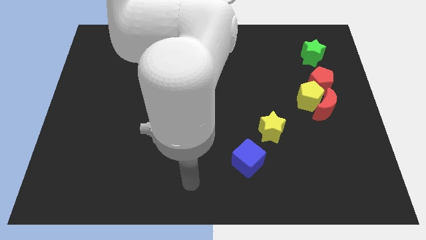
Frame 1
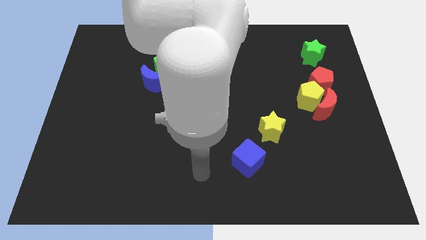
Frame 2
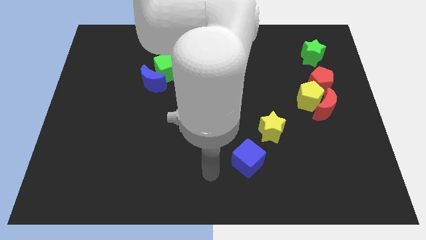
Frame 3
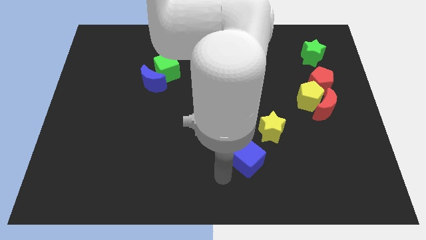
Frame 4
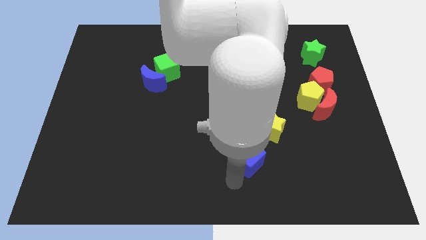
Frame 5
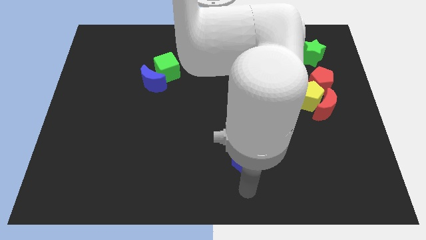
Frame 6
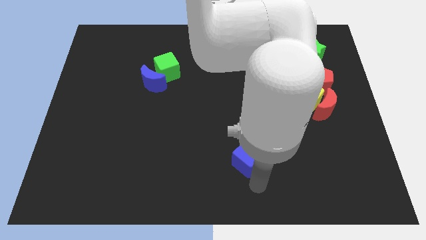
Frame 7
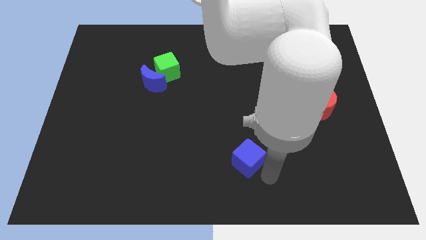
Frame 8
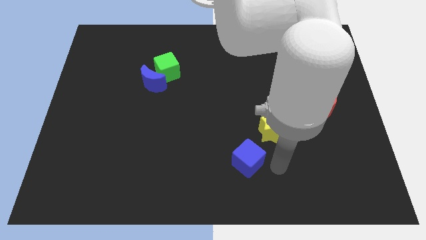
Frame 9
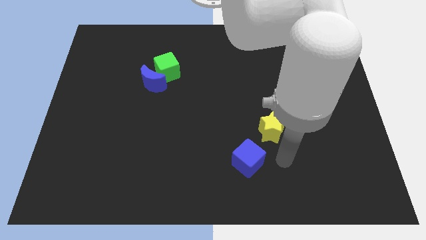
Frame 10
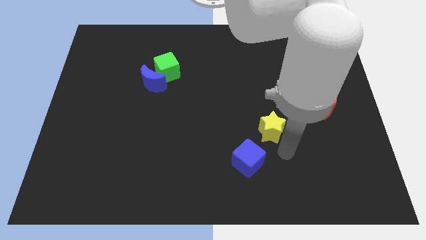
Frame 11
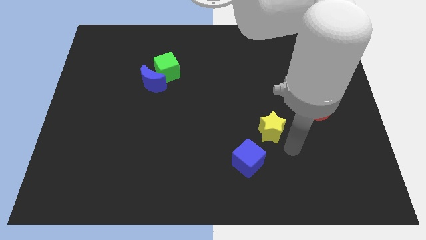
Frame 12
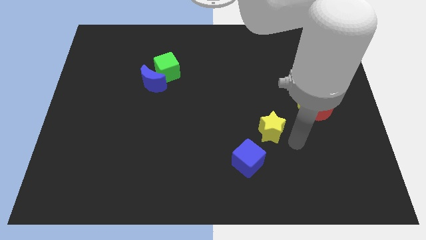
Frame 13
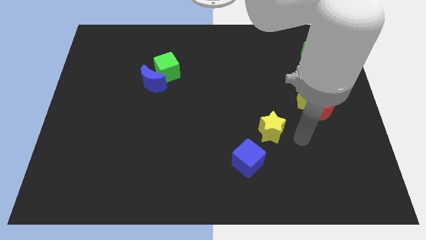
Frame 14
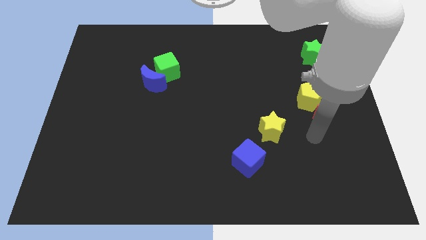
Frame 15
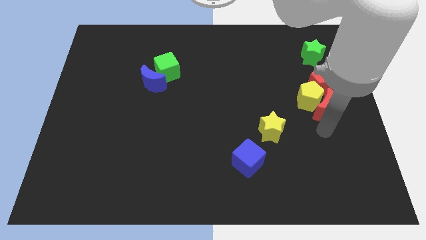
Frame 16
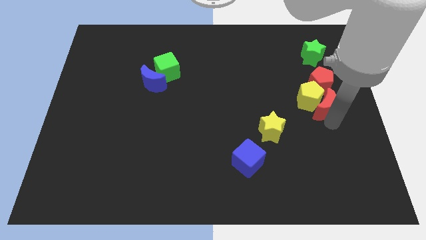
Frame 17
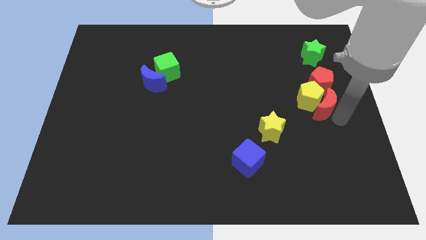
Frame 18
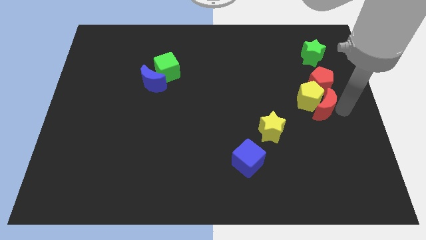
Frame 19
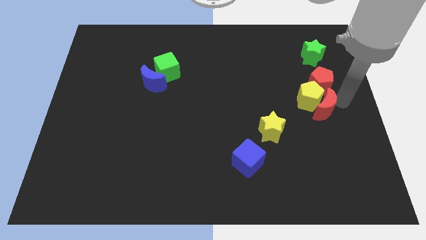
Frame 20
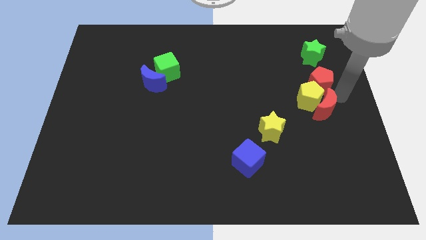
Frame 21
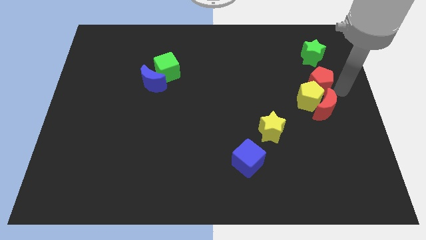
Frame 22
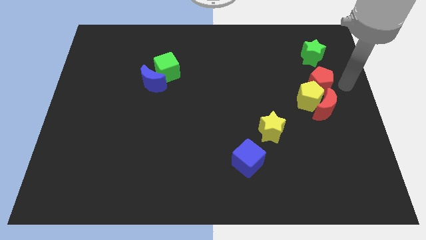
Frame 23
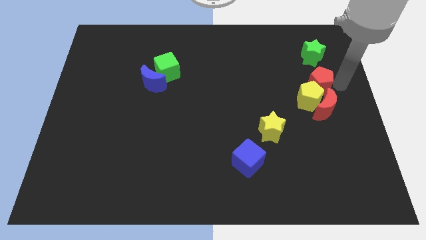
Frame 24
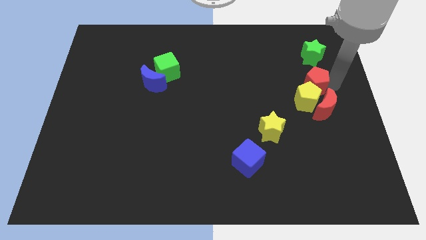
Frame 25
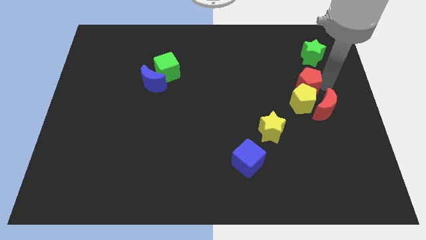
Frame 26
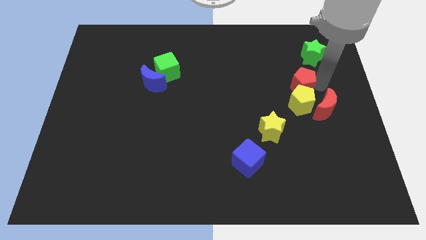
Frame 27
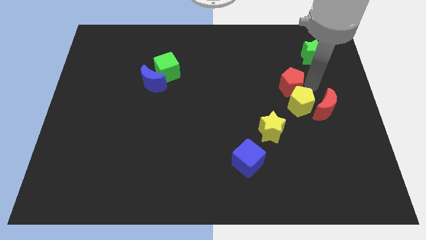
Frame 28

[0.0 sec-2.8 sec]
push the red pentagon slightly left

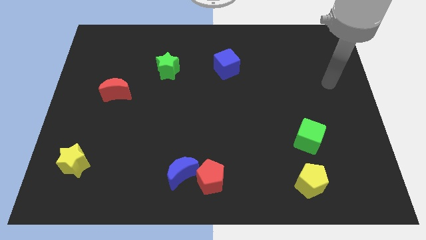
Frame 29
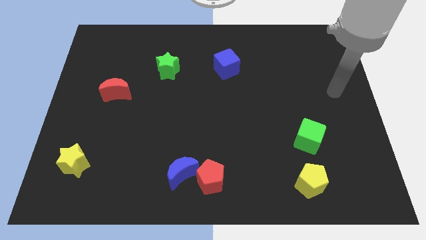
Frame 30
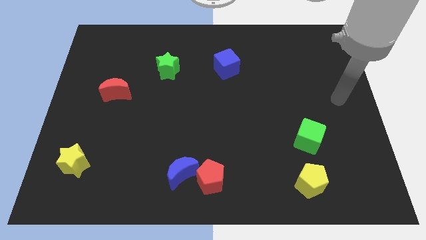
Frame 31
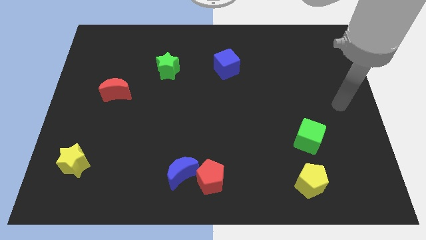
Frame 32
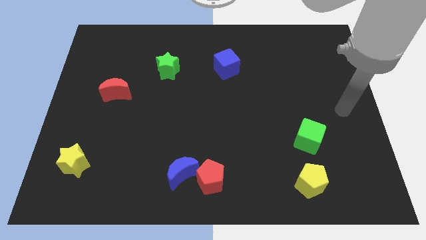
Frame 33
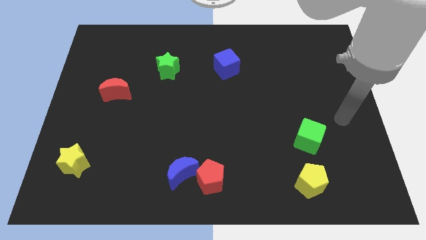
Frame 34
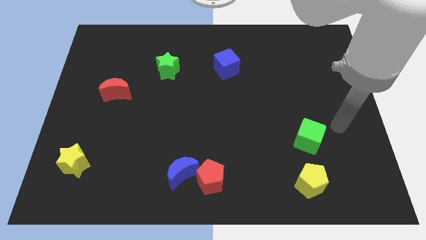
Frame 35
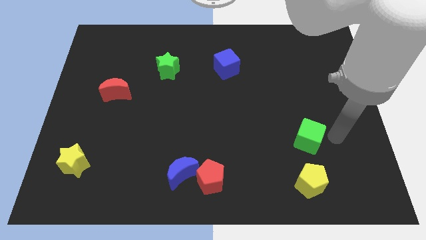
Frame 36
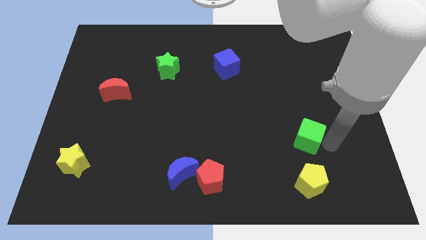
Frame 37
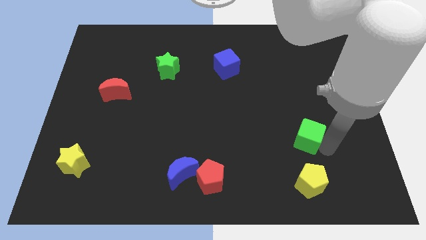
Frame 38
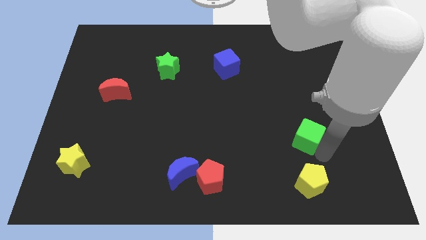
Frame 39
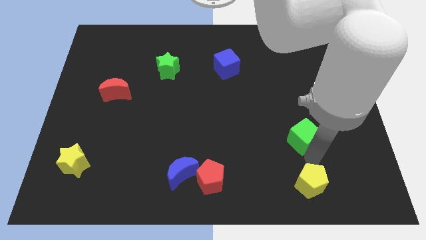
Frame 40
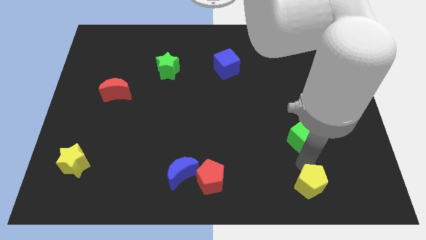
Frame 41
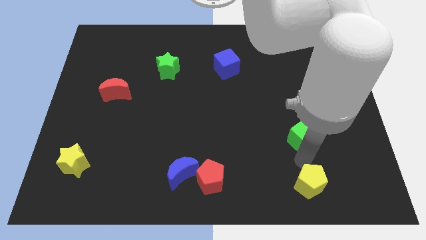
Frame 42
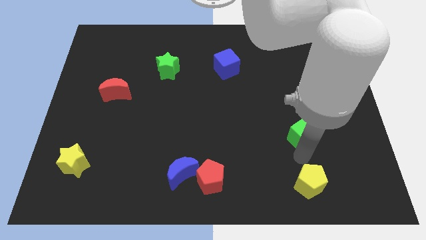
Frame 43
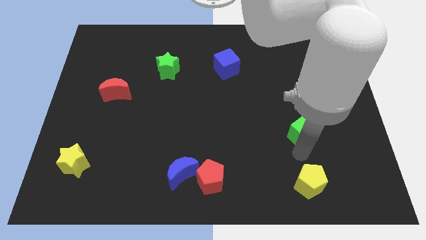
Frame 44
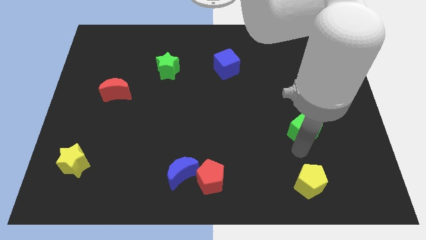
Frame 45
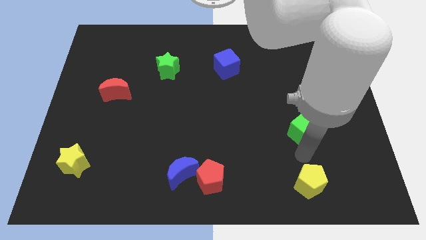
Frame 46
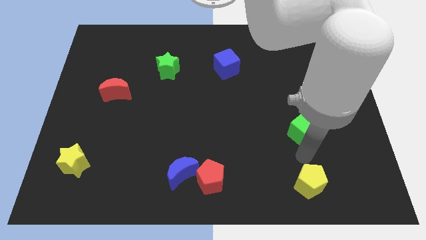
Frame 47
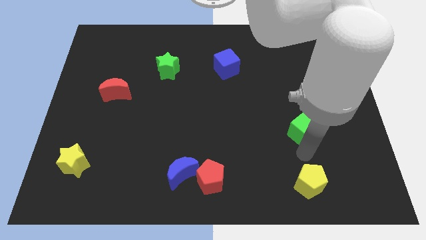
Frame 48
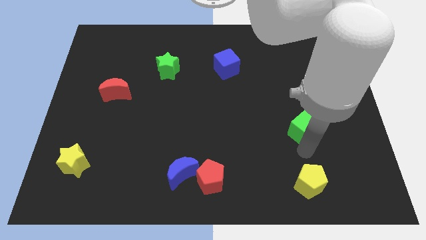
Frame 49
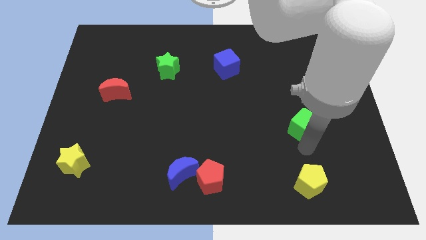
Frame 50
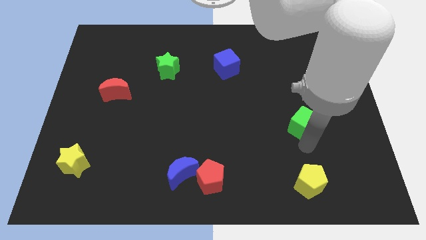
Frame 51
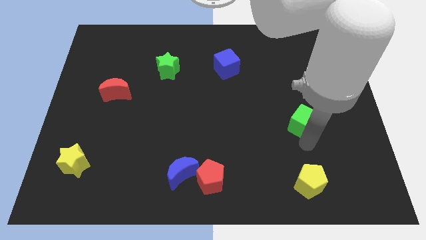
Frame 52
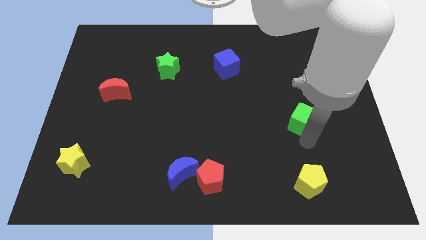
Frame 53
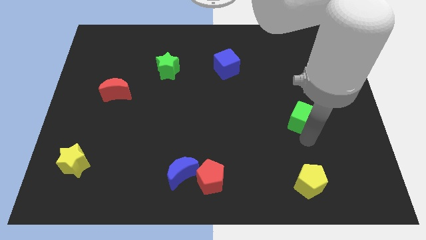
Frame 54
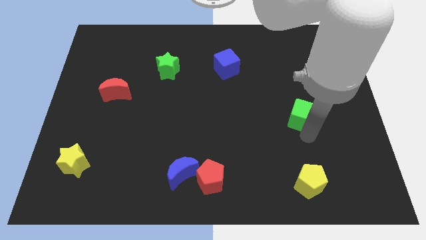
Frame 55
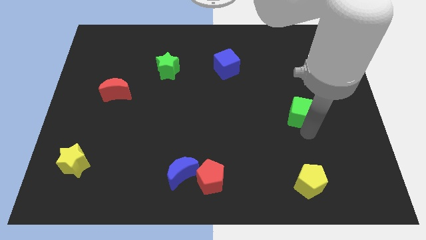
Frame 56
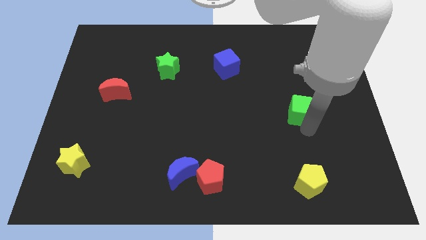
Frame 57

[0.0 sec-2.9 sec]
slightly push the green cube up

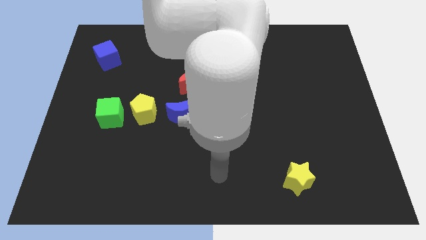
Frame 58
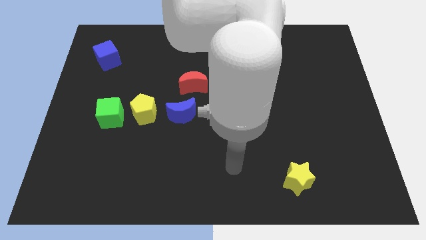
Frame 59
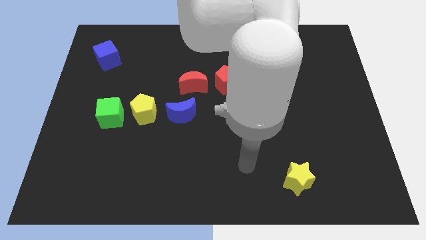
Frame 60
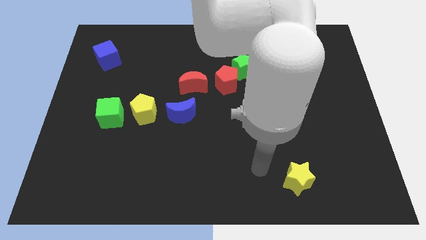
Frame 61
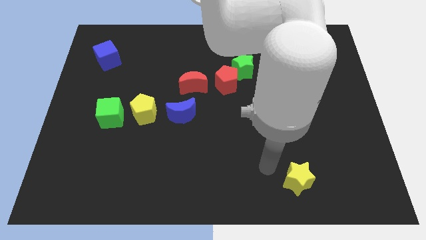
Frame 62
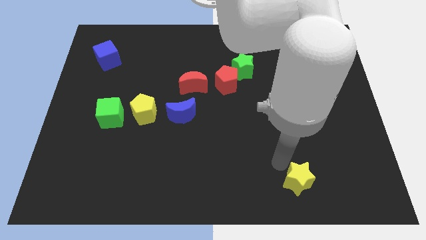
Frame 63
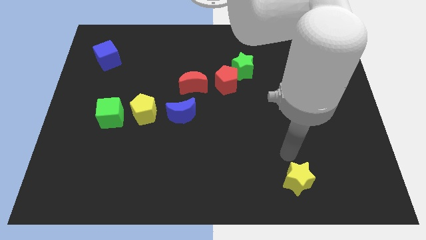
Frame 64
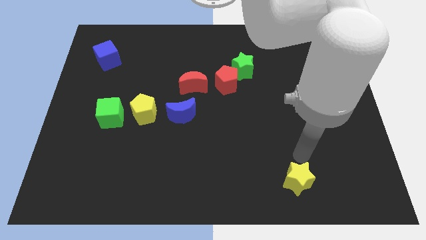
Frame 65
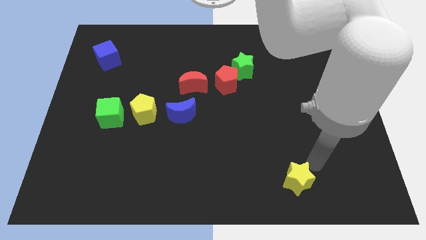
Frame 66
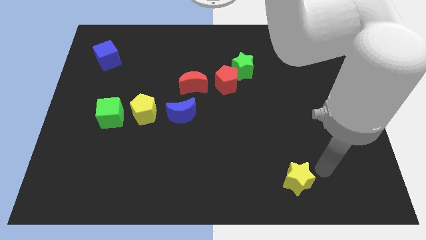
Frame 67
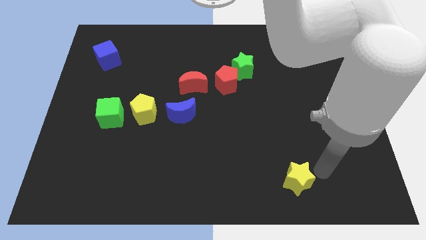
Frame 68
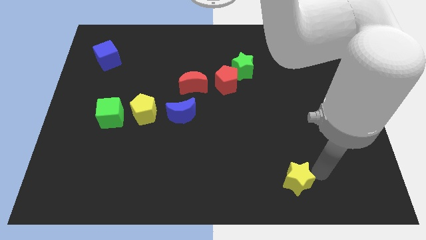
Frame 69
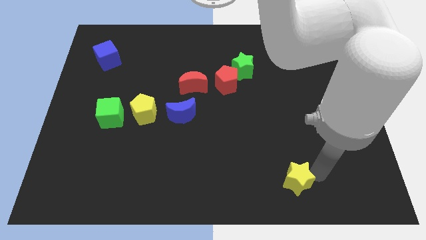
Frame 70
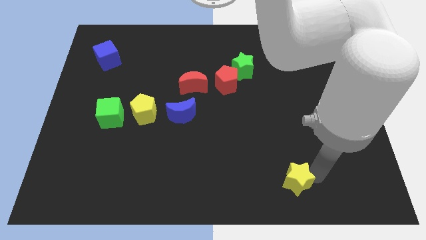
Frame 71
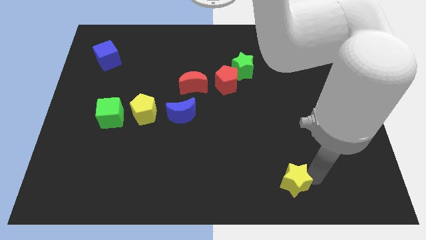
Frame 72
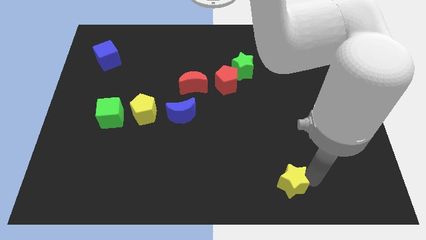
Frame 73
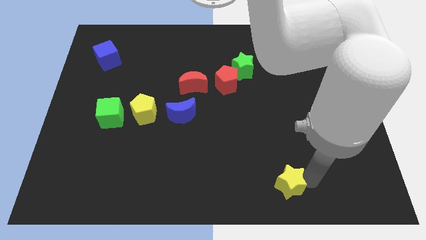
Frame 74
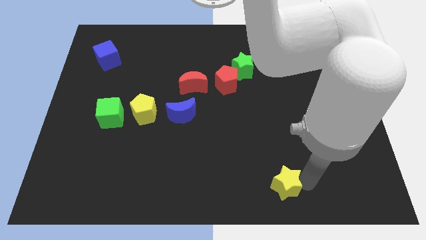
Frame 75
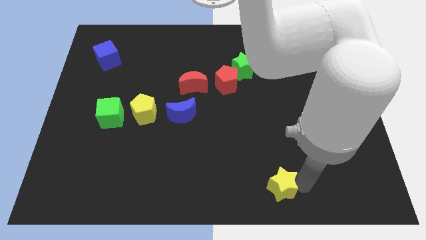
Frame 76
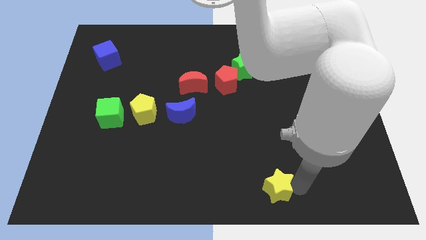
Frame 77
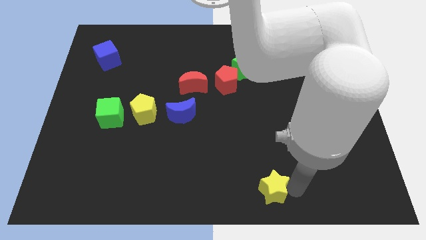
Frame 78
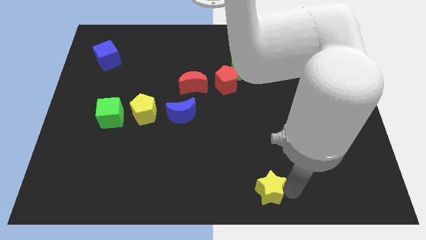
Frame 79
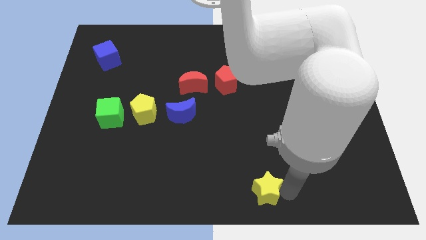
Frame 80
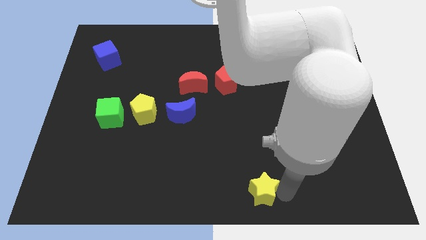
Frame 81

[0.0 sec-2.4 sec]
slide the yellow star a little left

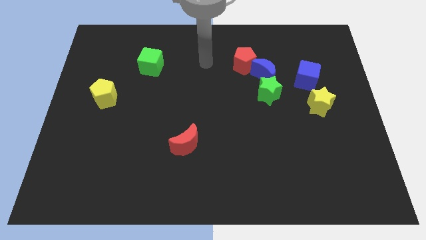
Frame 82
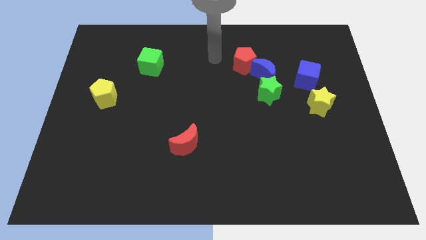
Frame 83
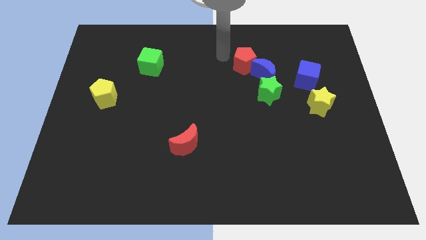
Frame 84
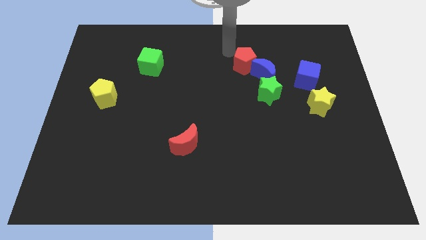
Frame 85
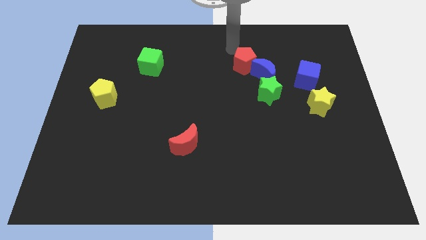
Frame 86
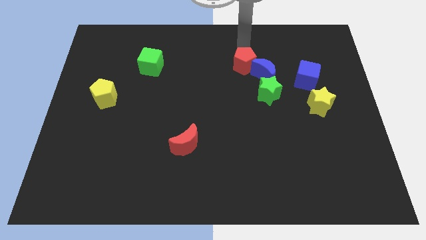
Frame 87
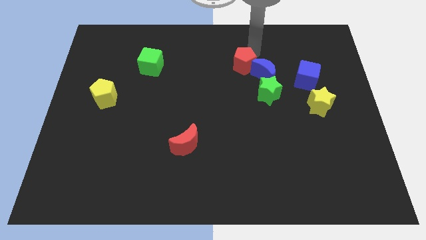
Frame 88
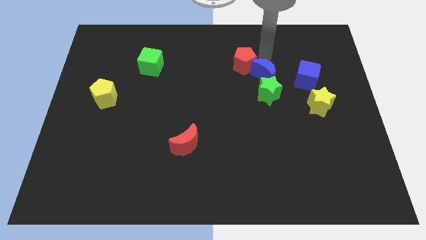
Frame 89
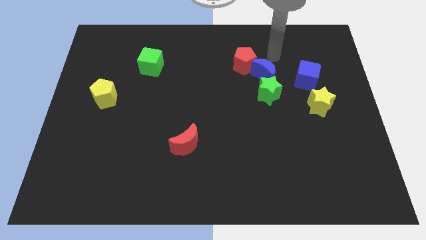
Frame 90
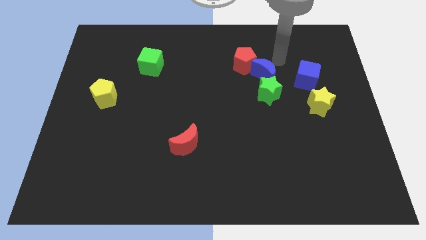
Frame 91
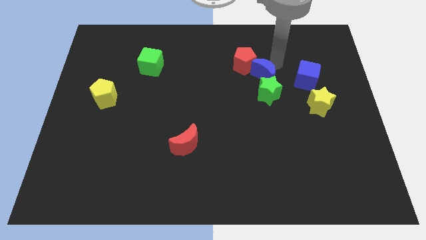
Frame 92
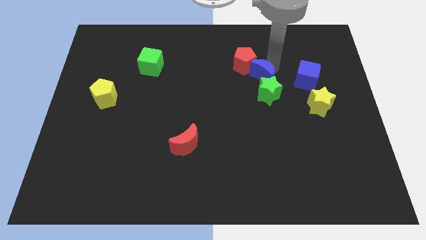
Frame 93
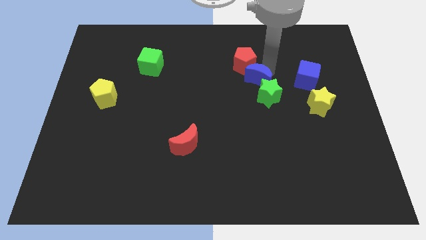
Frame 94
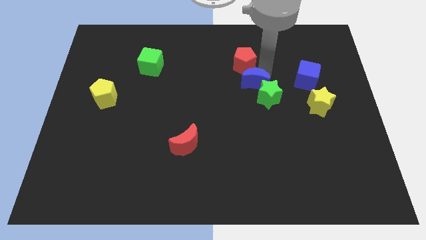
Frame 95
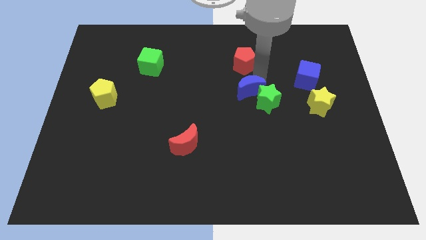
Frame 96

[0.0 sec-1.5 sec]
move the blue moon a bit down and then left
